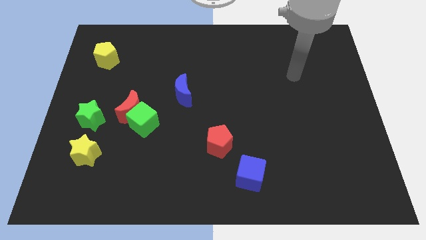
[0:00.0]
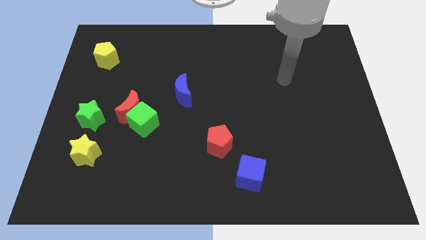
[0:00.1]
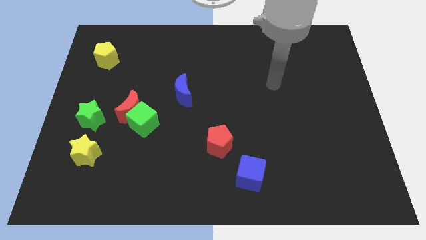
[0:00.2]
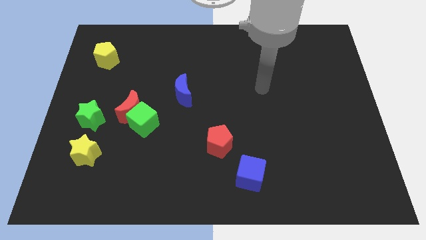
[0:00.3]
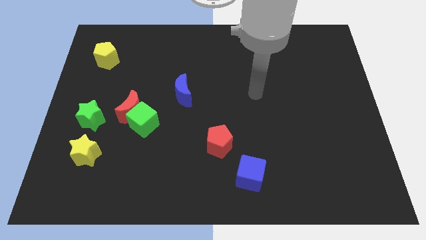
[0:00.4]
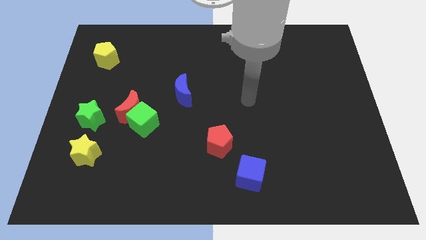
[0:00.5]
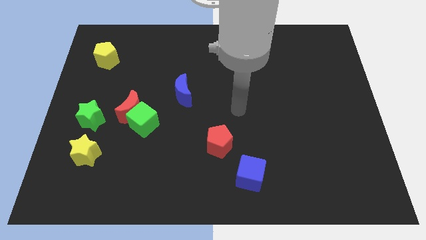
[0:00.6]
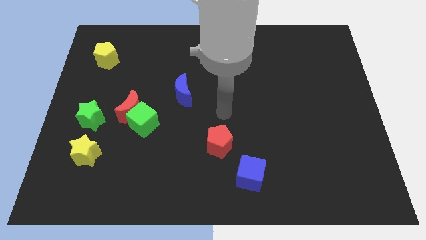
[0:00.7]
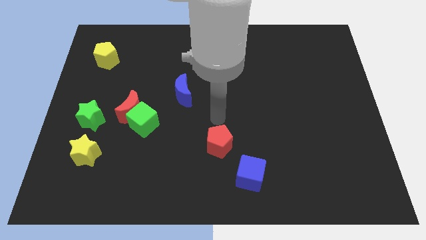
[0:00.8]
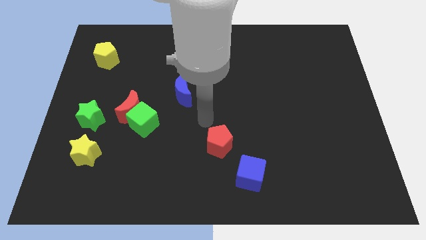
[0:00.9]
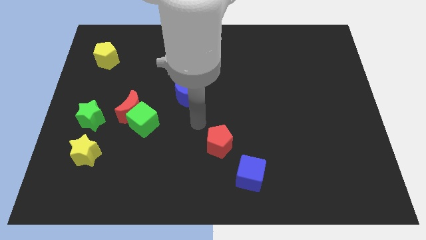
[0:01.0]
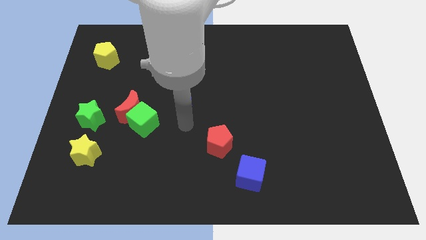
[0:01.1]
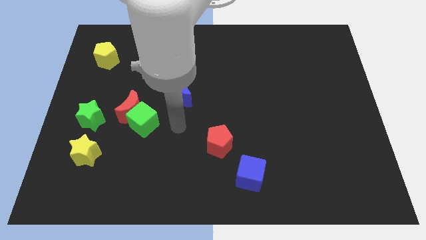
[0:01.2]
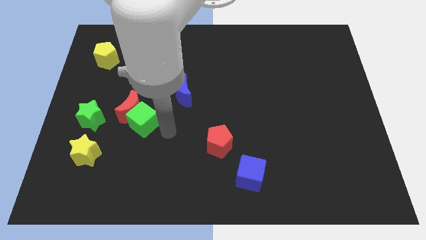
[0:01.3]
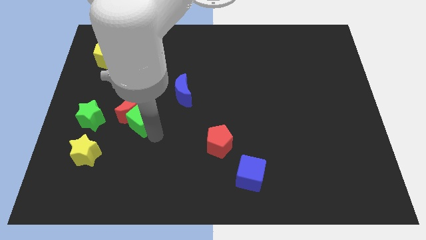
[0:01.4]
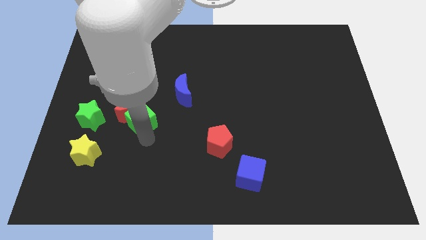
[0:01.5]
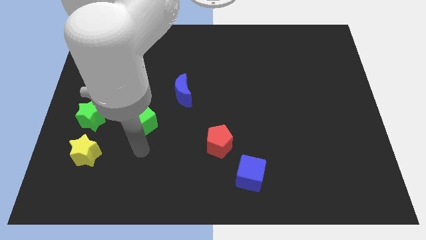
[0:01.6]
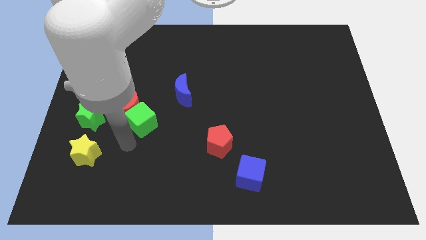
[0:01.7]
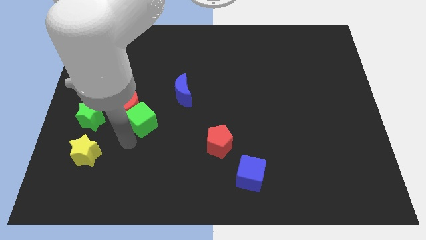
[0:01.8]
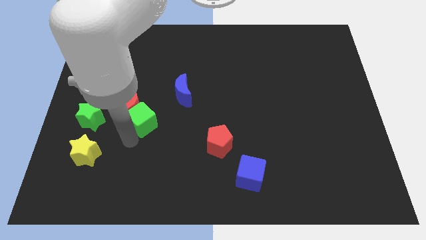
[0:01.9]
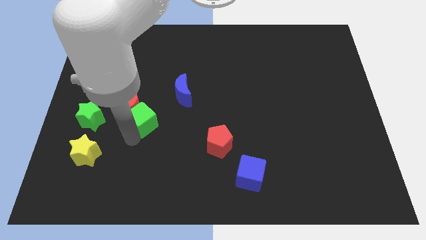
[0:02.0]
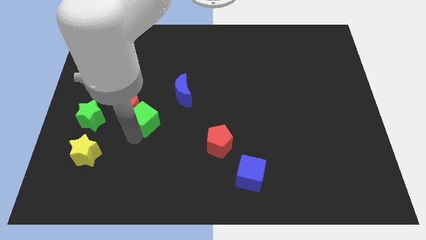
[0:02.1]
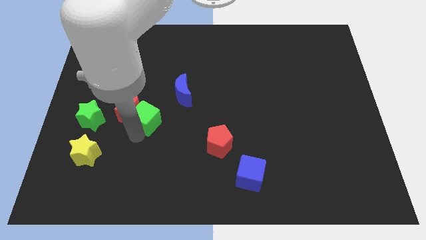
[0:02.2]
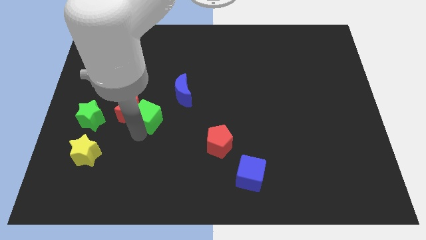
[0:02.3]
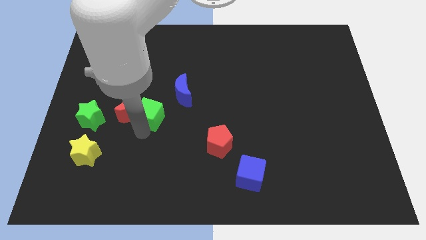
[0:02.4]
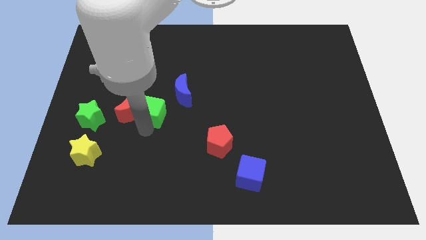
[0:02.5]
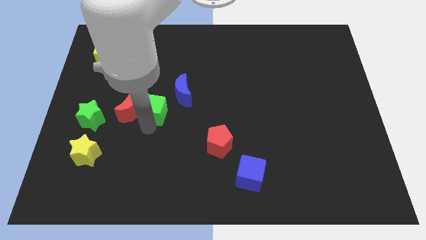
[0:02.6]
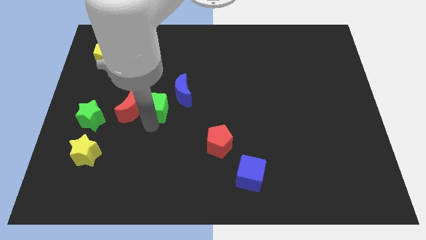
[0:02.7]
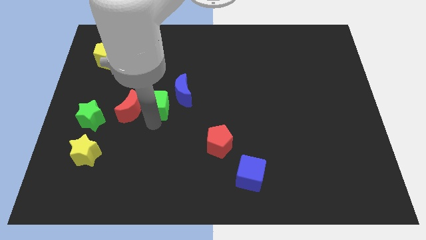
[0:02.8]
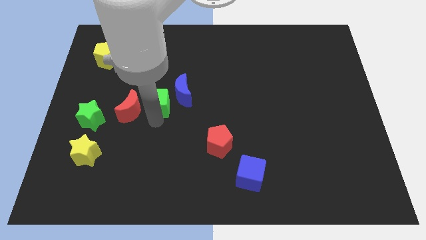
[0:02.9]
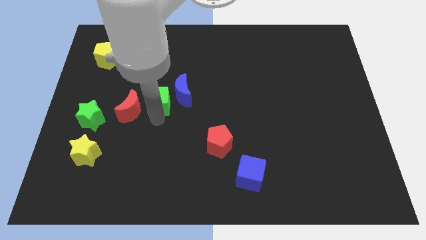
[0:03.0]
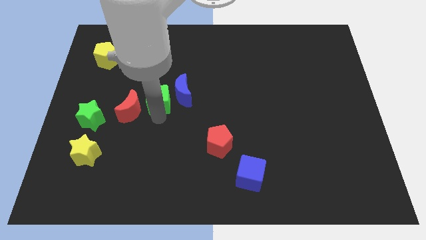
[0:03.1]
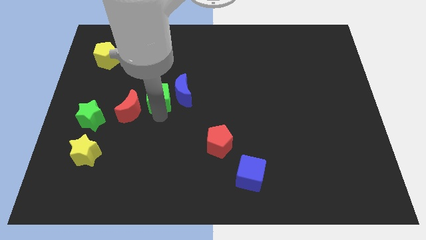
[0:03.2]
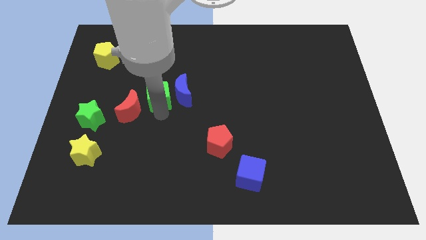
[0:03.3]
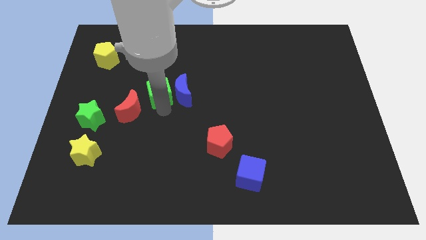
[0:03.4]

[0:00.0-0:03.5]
move the green cube a little up

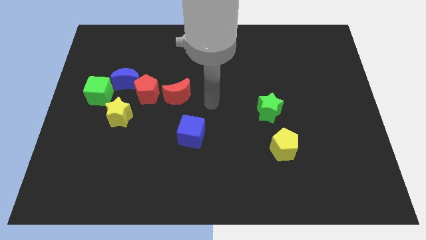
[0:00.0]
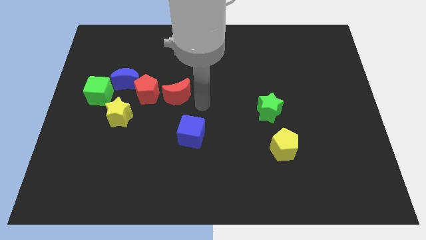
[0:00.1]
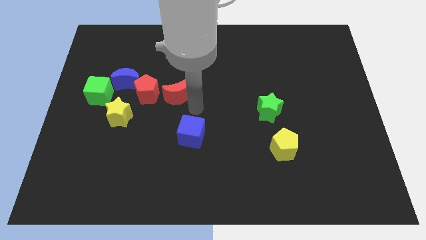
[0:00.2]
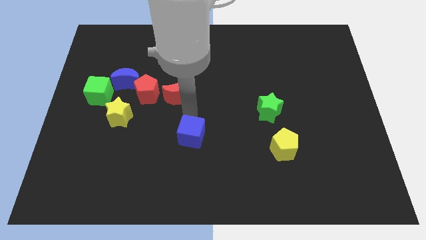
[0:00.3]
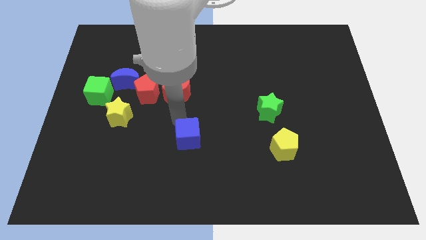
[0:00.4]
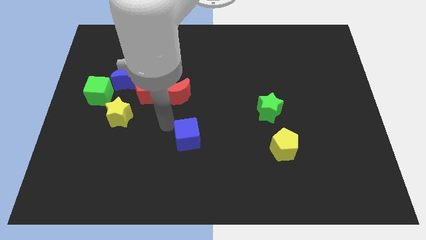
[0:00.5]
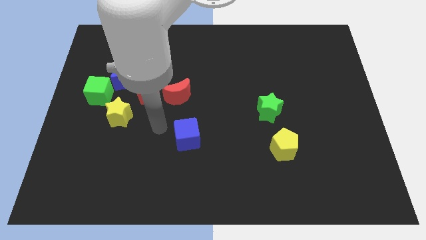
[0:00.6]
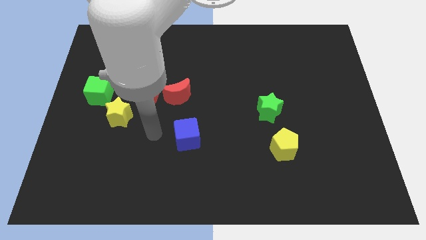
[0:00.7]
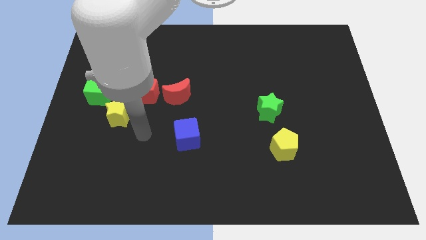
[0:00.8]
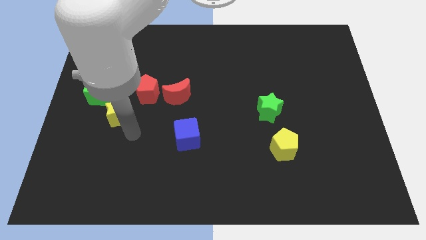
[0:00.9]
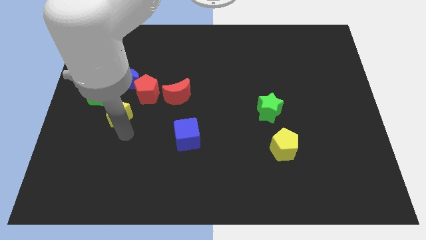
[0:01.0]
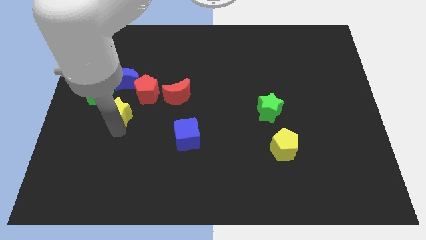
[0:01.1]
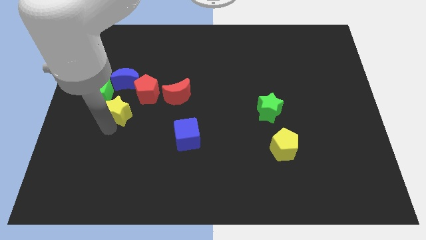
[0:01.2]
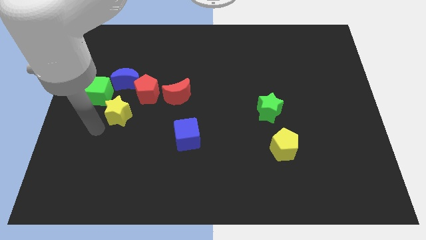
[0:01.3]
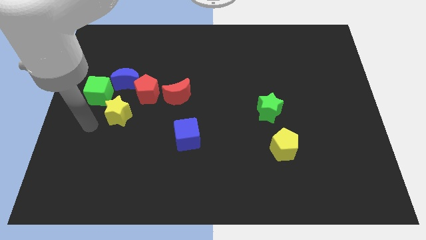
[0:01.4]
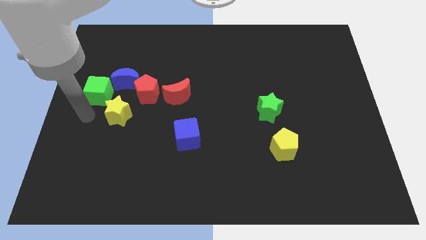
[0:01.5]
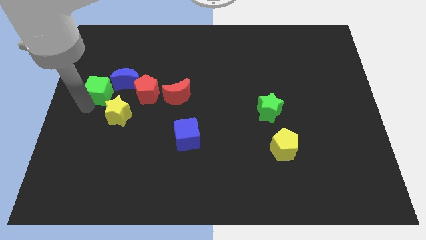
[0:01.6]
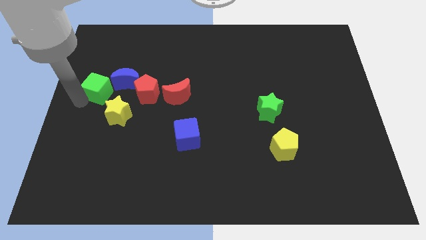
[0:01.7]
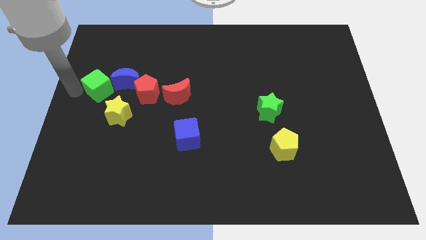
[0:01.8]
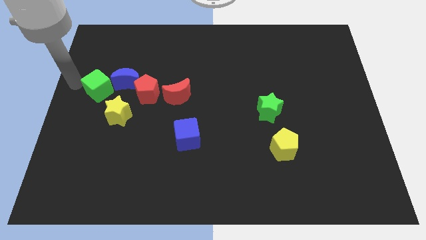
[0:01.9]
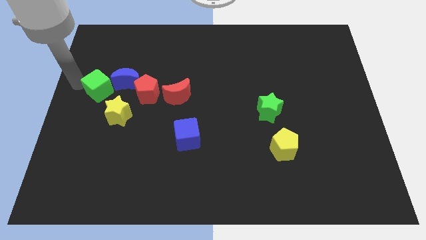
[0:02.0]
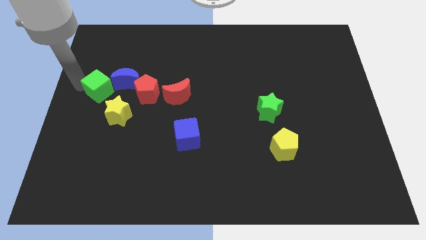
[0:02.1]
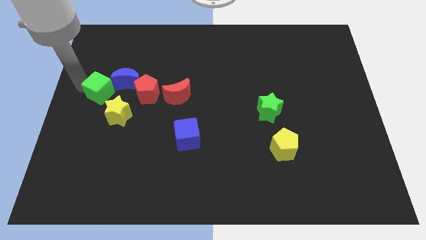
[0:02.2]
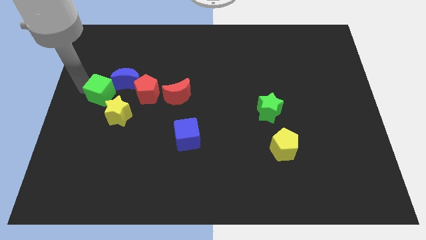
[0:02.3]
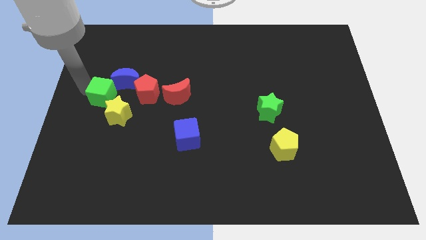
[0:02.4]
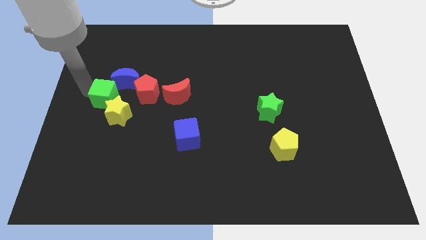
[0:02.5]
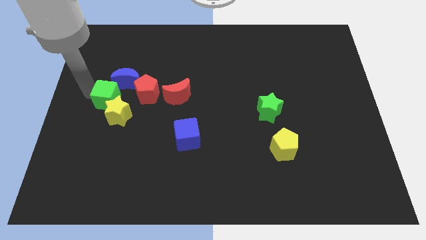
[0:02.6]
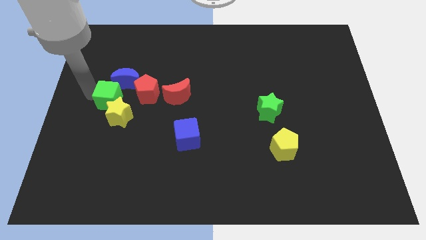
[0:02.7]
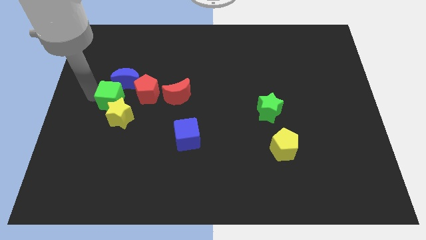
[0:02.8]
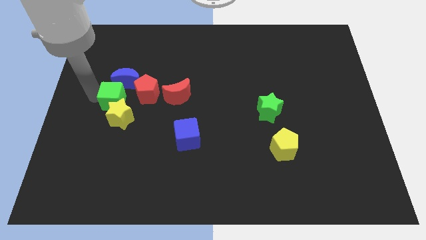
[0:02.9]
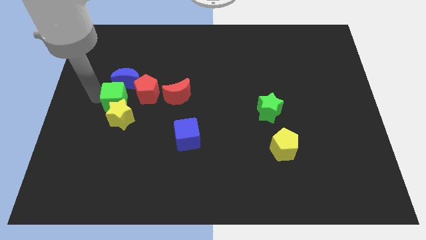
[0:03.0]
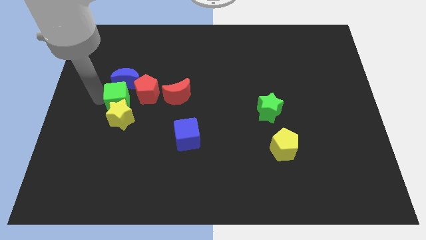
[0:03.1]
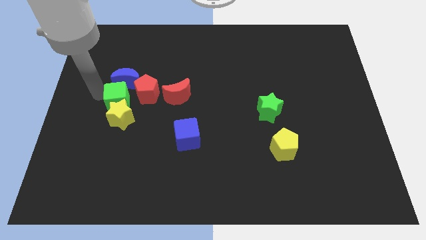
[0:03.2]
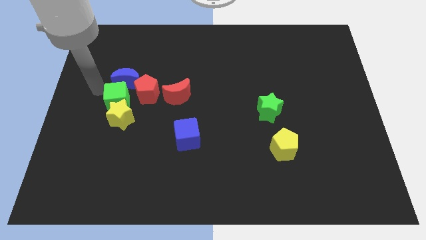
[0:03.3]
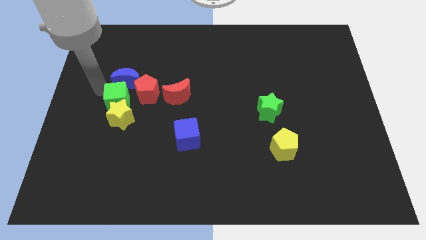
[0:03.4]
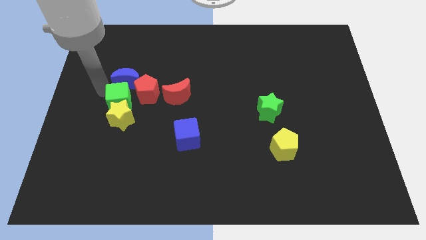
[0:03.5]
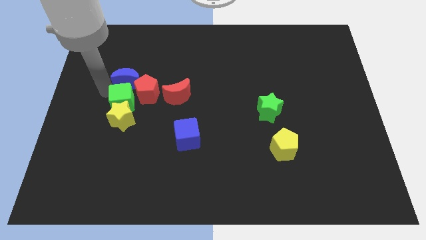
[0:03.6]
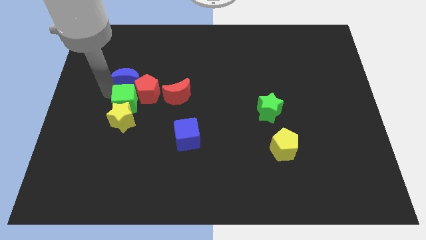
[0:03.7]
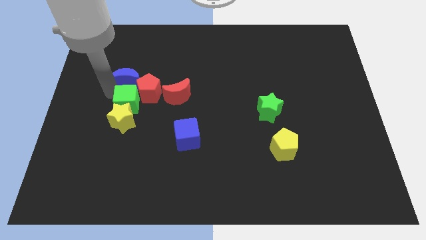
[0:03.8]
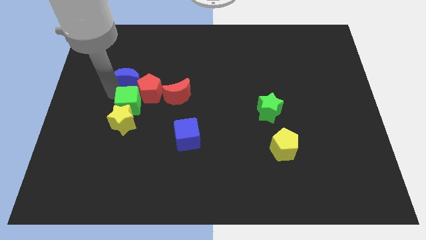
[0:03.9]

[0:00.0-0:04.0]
slightly move the green cube downwards and then to the right

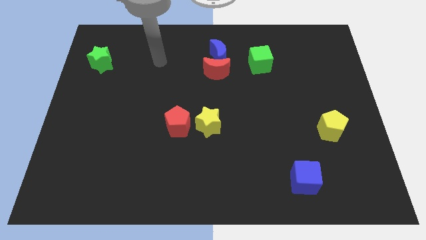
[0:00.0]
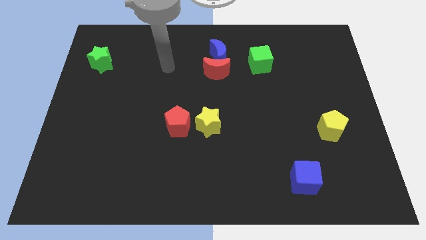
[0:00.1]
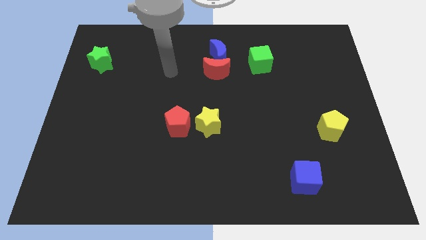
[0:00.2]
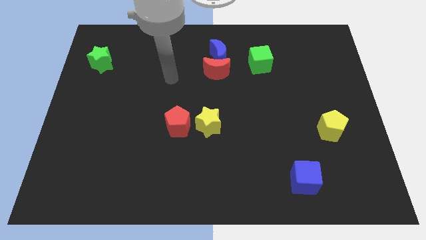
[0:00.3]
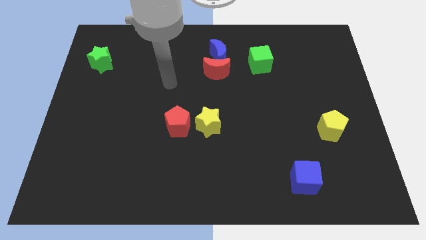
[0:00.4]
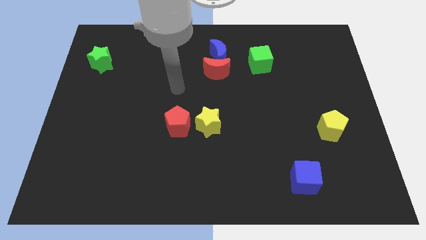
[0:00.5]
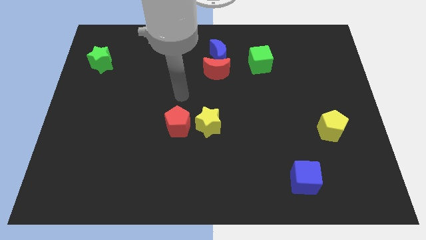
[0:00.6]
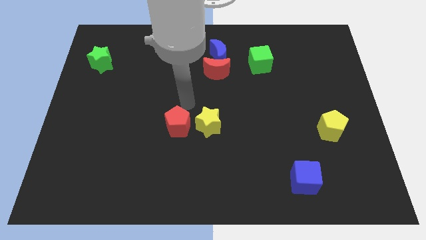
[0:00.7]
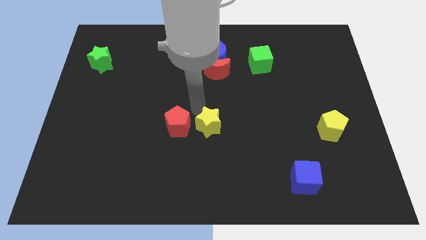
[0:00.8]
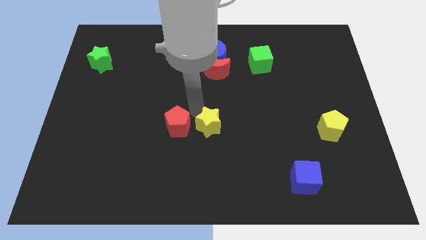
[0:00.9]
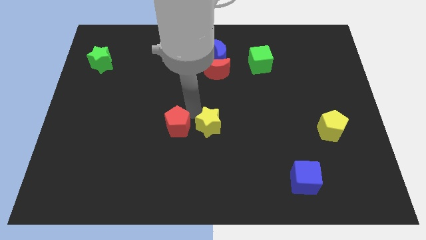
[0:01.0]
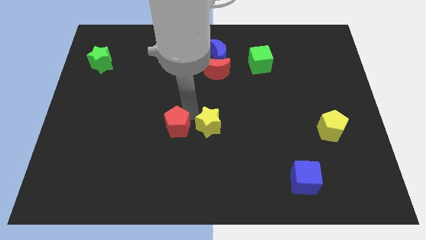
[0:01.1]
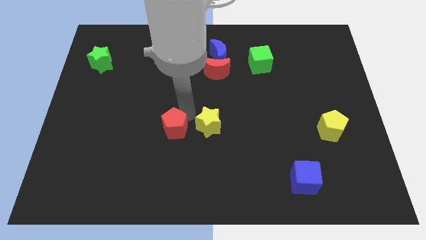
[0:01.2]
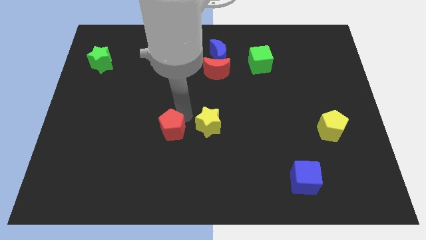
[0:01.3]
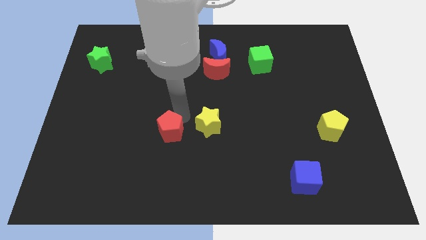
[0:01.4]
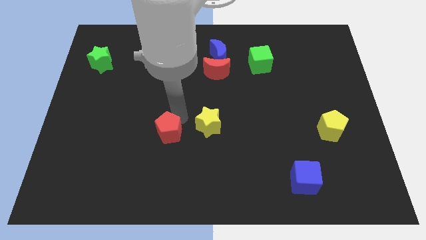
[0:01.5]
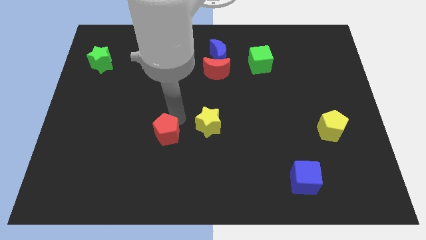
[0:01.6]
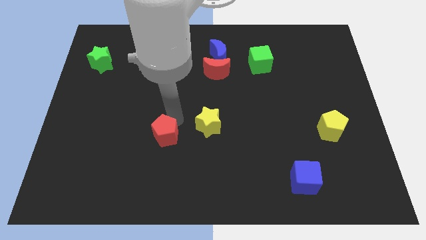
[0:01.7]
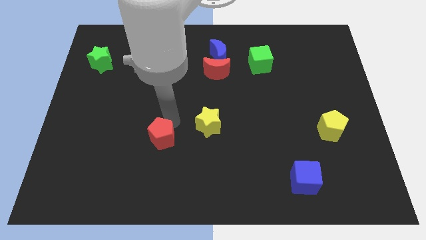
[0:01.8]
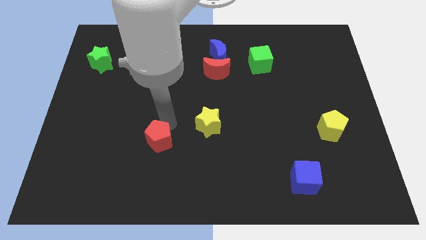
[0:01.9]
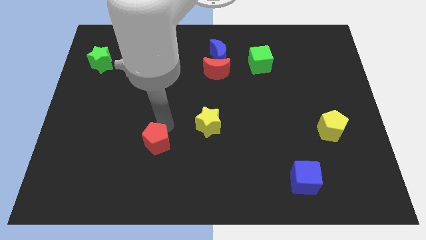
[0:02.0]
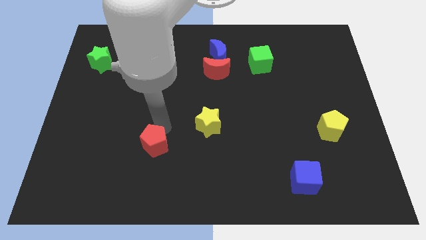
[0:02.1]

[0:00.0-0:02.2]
move the red pentagon a bit diagonally down and to the left
